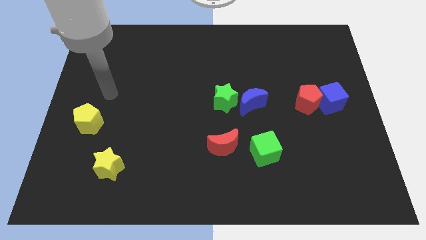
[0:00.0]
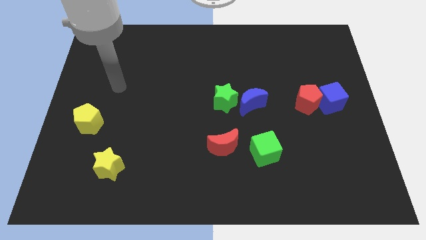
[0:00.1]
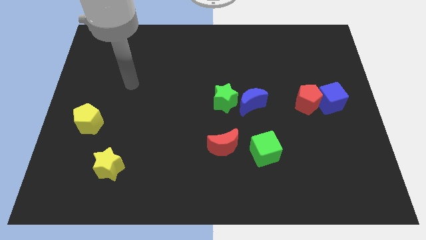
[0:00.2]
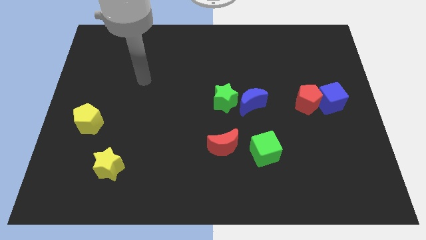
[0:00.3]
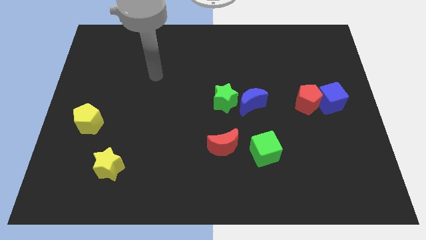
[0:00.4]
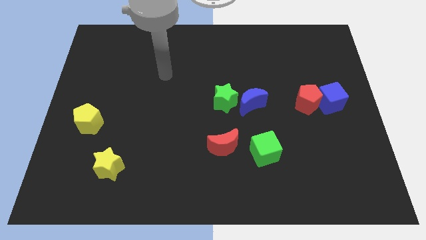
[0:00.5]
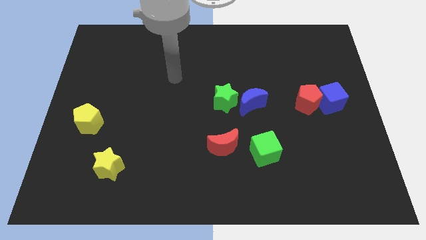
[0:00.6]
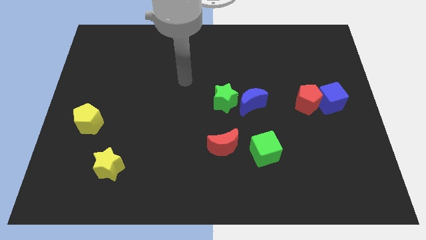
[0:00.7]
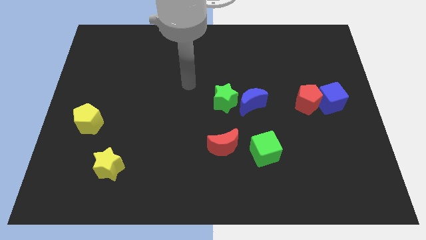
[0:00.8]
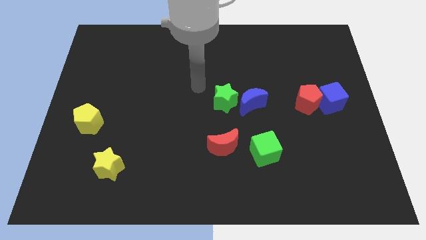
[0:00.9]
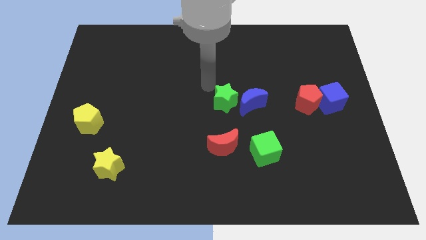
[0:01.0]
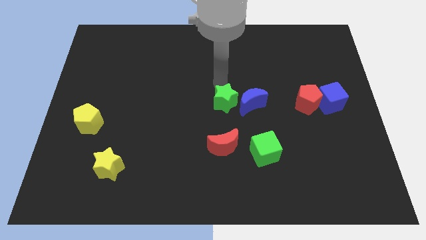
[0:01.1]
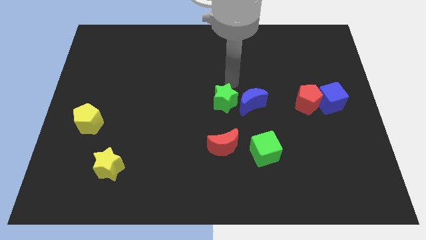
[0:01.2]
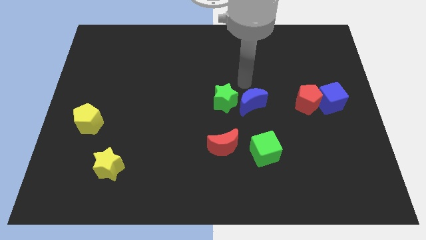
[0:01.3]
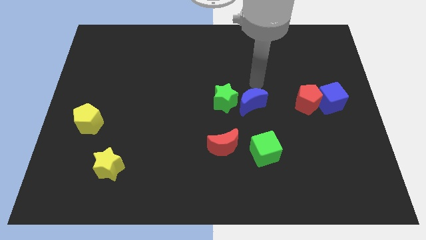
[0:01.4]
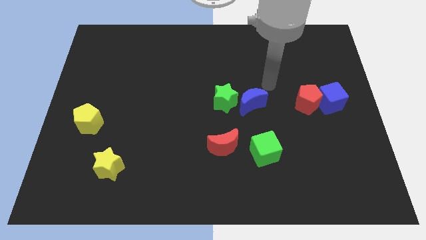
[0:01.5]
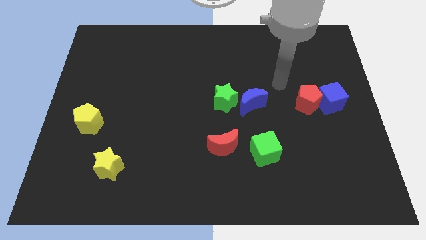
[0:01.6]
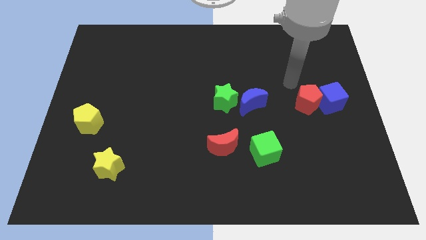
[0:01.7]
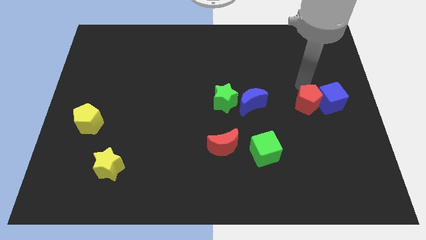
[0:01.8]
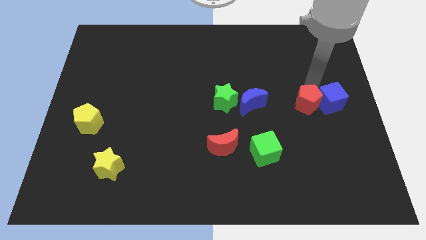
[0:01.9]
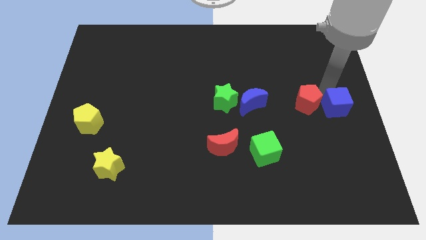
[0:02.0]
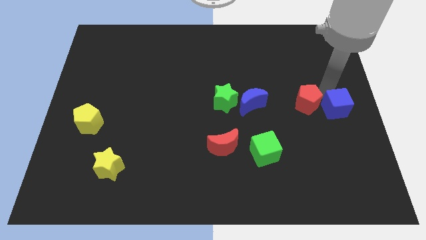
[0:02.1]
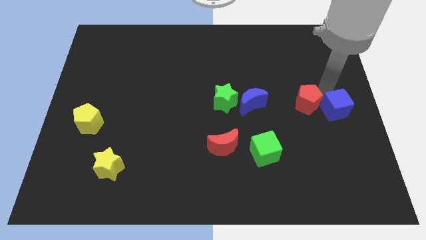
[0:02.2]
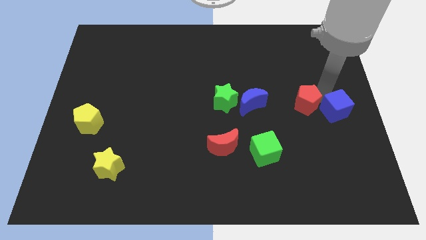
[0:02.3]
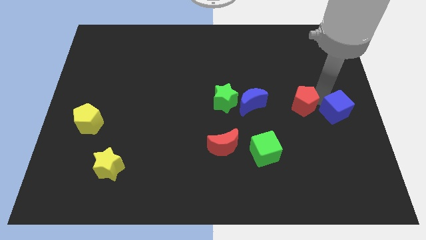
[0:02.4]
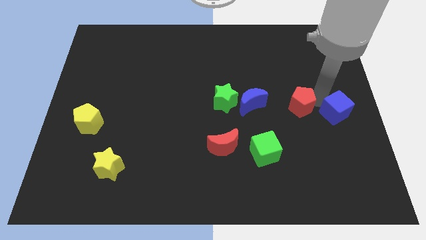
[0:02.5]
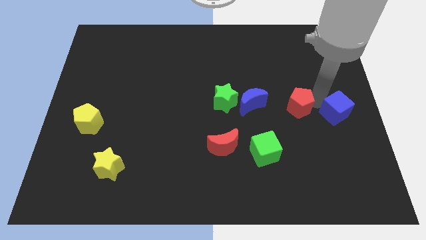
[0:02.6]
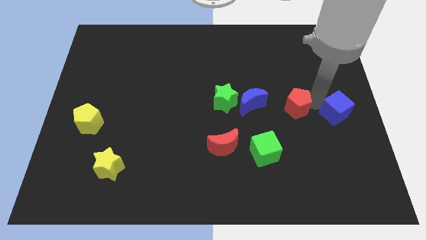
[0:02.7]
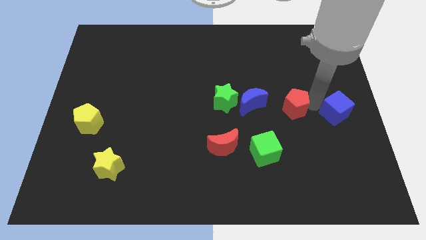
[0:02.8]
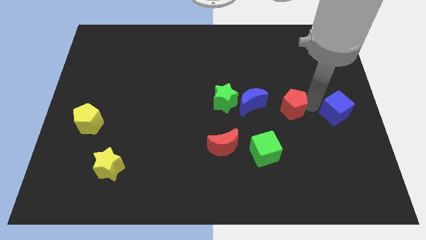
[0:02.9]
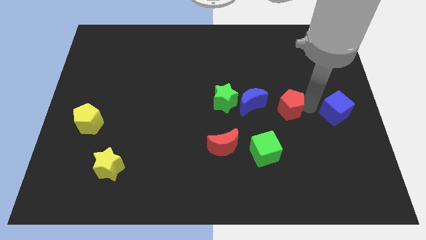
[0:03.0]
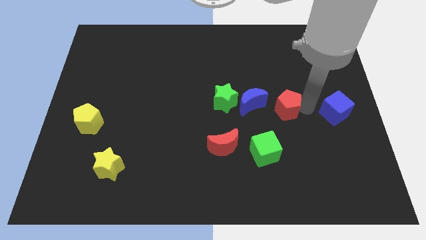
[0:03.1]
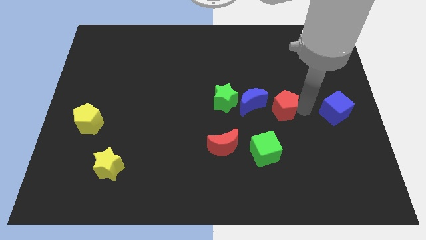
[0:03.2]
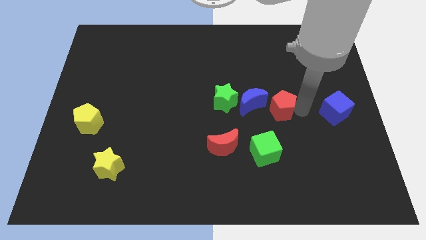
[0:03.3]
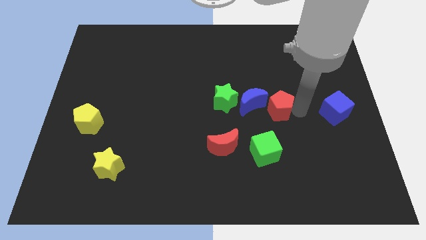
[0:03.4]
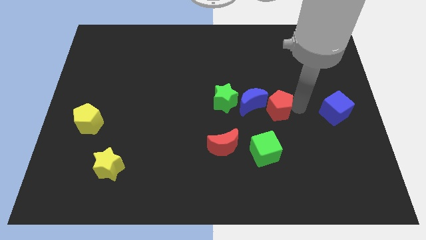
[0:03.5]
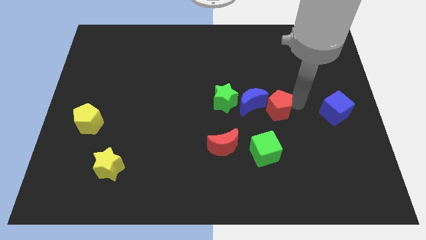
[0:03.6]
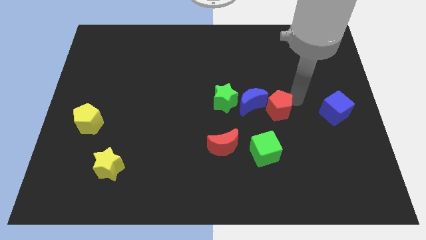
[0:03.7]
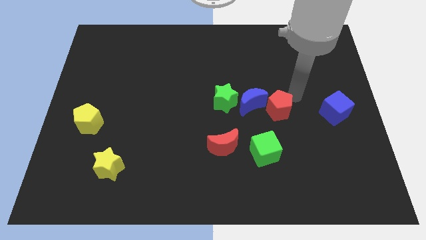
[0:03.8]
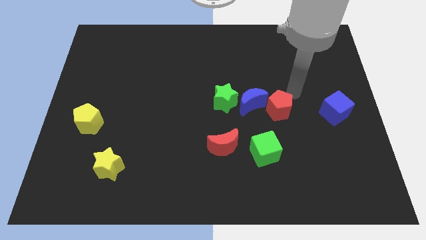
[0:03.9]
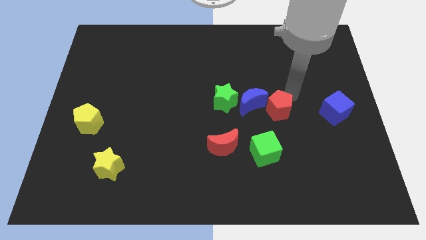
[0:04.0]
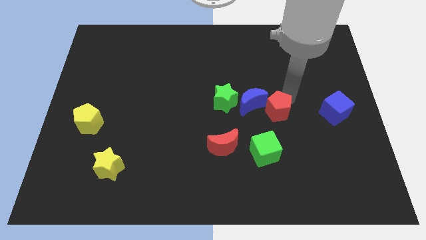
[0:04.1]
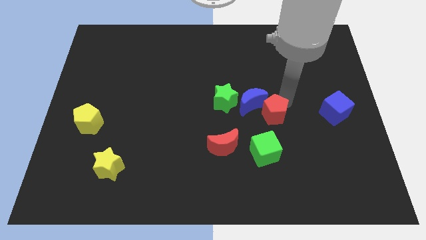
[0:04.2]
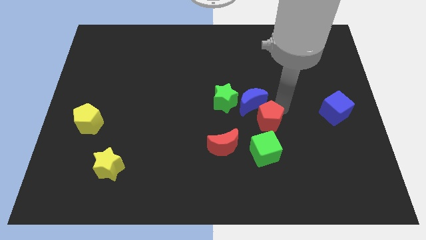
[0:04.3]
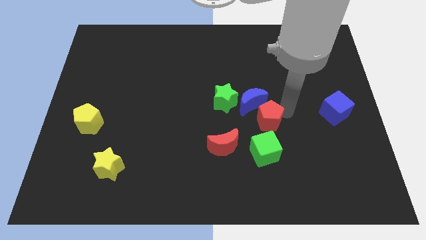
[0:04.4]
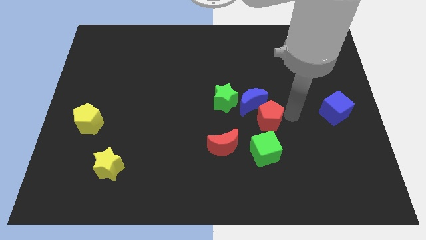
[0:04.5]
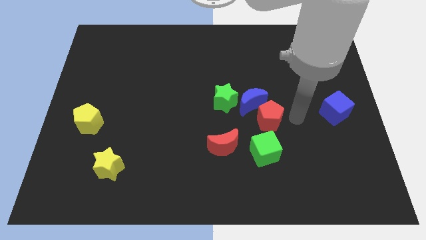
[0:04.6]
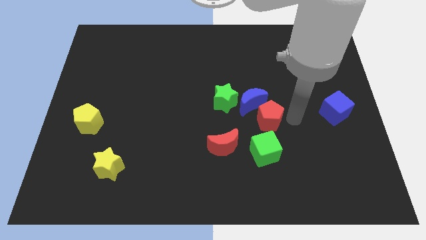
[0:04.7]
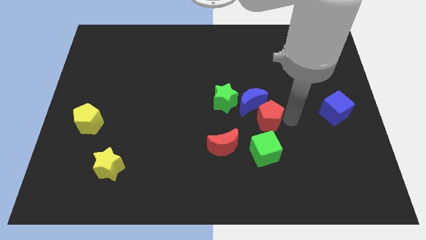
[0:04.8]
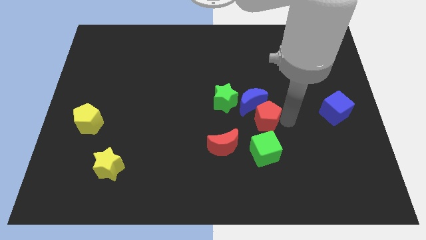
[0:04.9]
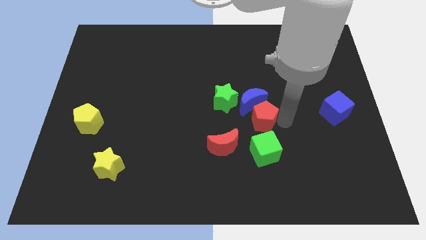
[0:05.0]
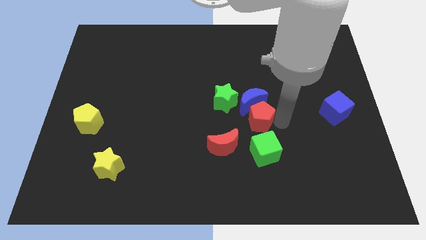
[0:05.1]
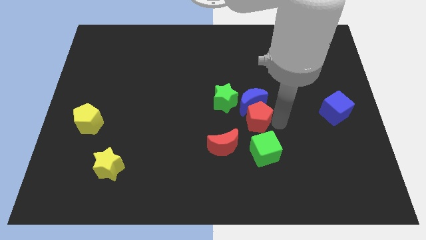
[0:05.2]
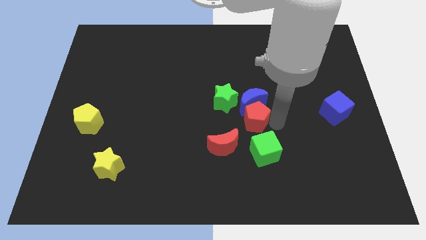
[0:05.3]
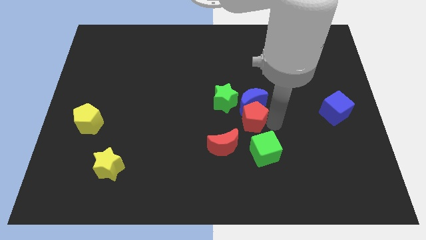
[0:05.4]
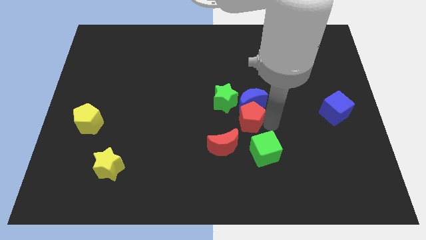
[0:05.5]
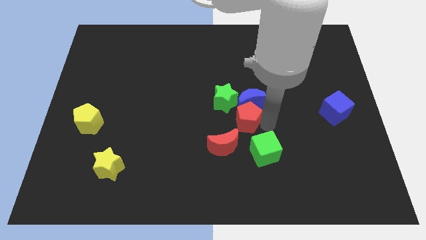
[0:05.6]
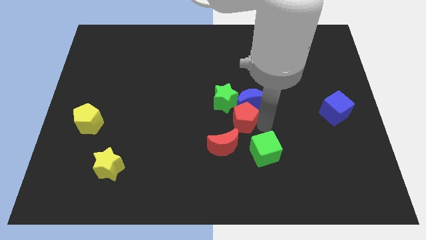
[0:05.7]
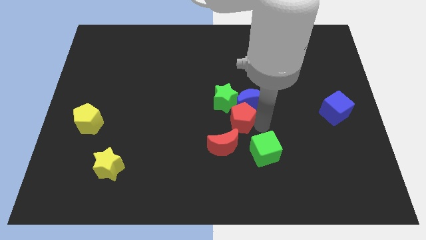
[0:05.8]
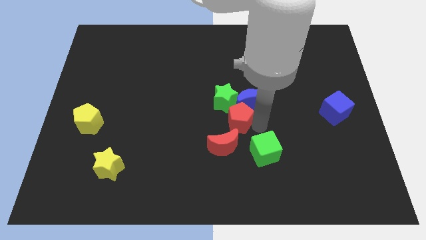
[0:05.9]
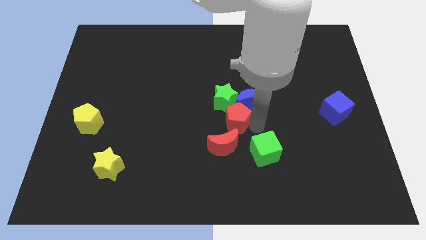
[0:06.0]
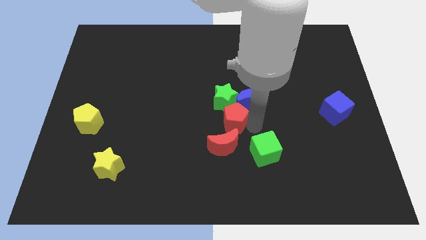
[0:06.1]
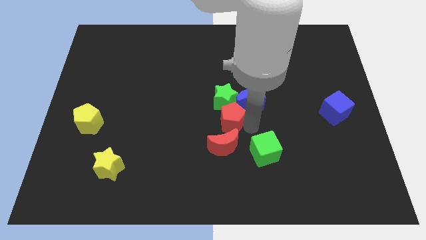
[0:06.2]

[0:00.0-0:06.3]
move the red pentagon to the bottom left side of the green star

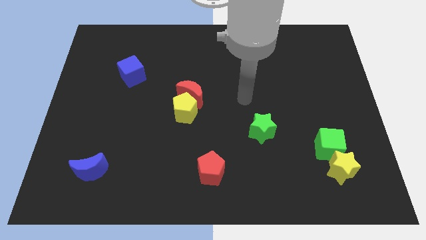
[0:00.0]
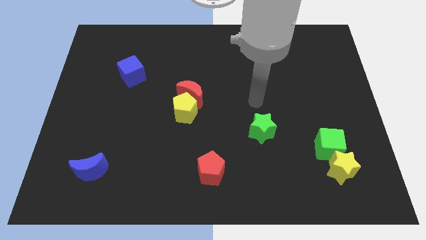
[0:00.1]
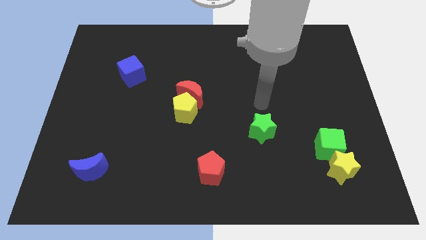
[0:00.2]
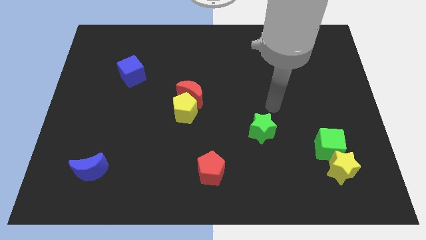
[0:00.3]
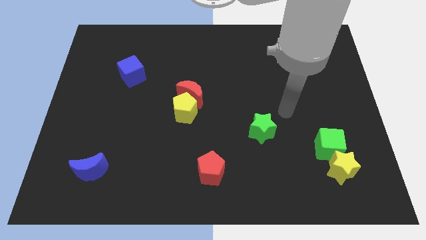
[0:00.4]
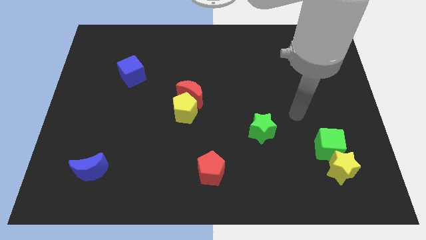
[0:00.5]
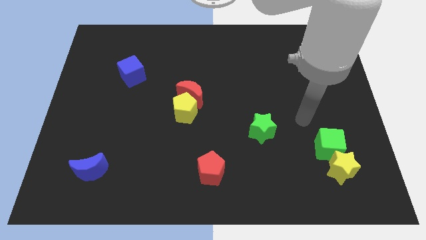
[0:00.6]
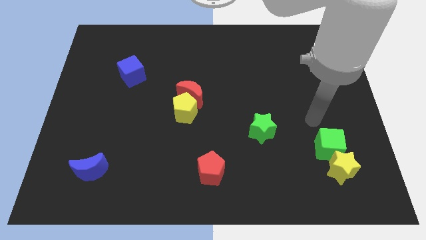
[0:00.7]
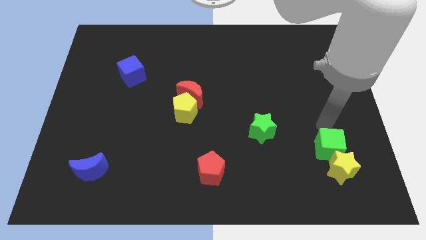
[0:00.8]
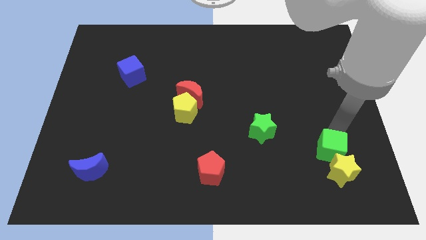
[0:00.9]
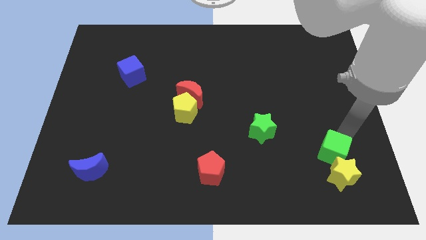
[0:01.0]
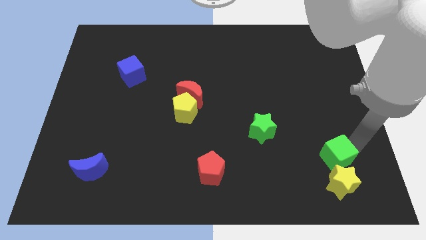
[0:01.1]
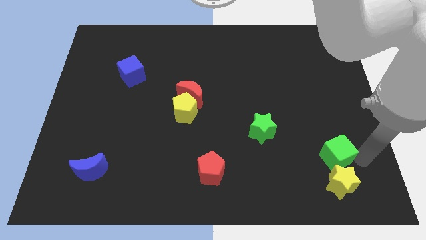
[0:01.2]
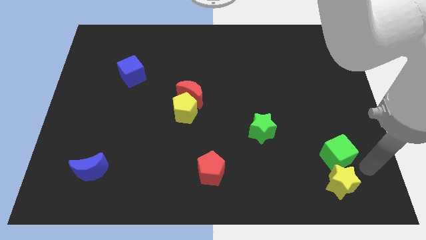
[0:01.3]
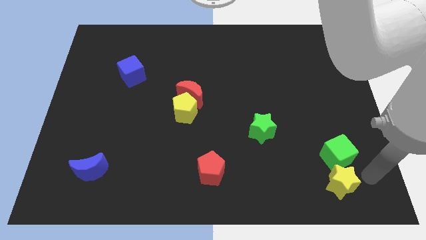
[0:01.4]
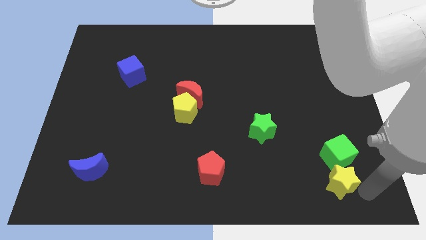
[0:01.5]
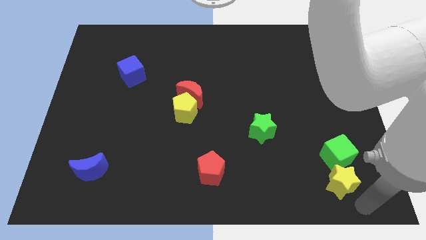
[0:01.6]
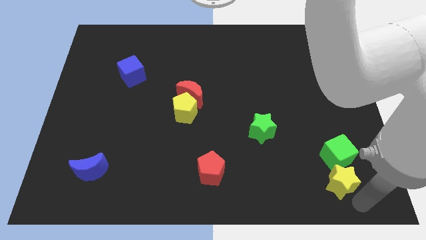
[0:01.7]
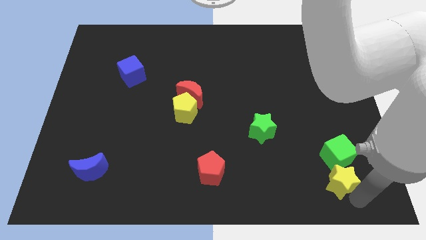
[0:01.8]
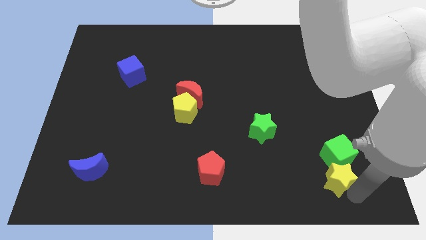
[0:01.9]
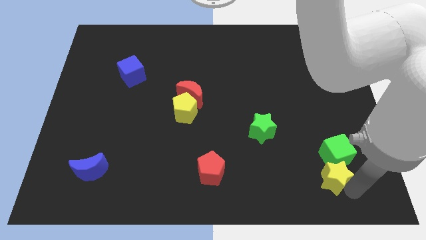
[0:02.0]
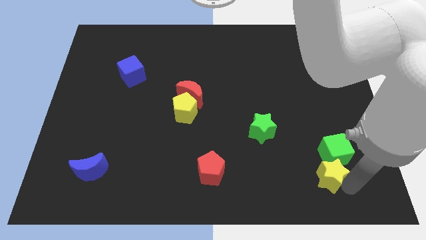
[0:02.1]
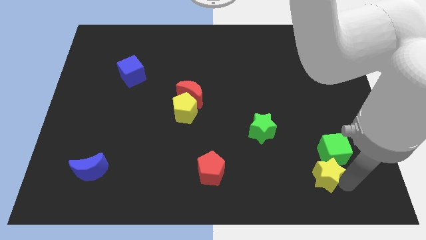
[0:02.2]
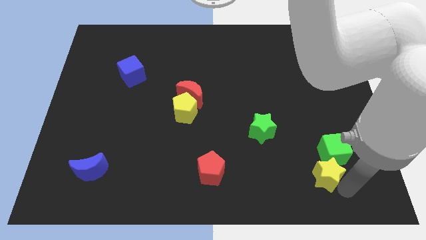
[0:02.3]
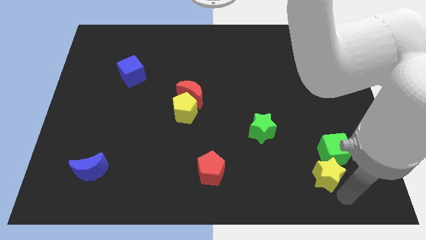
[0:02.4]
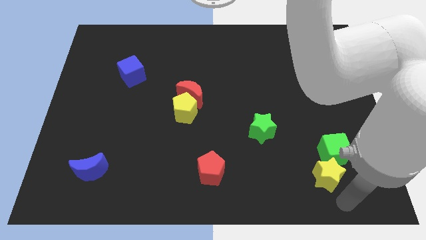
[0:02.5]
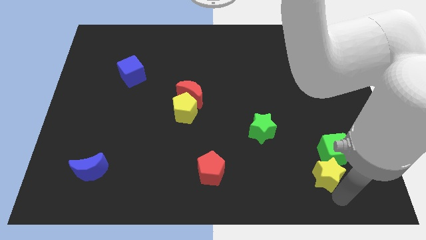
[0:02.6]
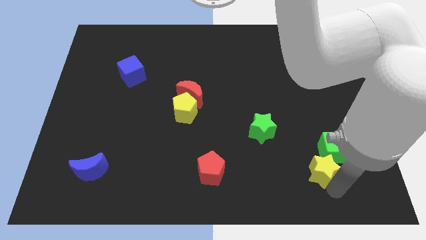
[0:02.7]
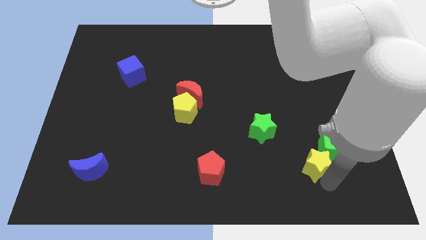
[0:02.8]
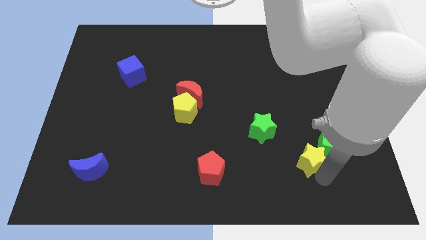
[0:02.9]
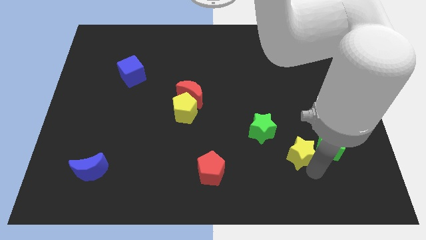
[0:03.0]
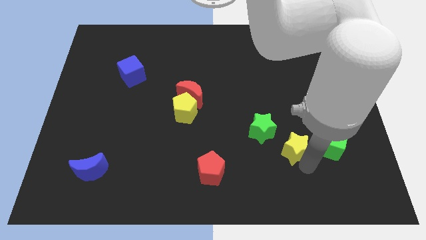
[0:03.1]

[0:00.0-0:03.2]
slide the yellow star just right of the green star
